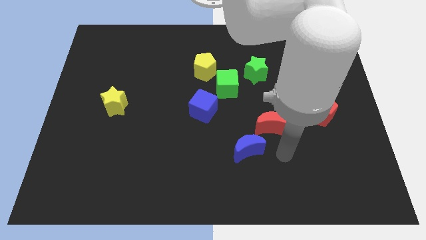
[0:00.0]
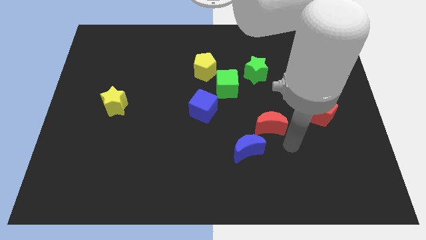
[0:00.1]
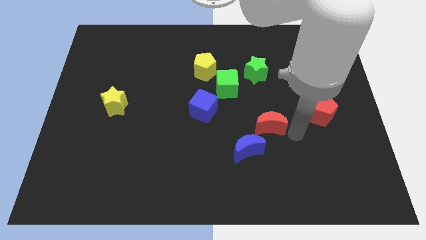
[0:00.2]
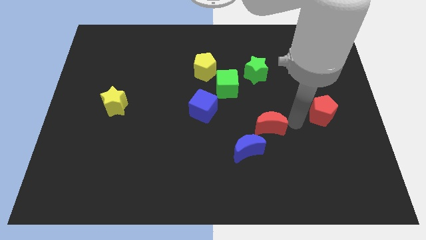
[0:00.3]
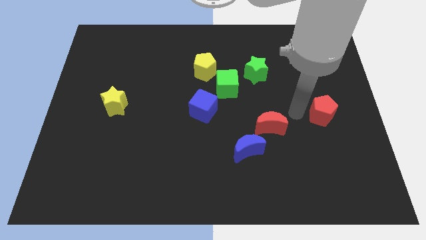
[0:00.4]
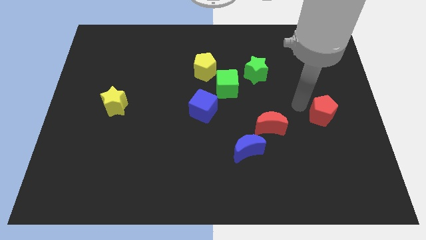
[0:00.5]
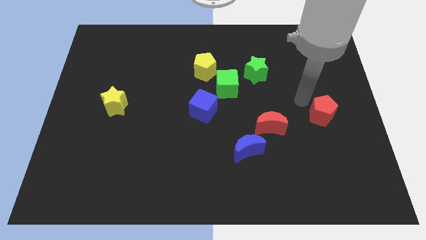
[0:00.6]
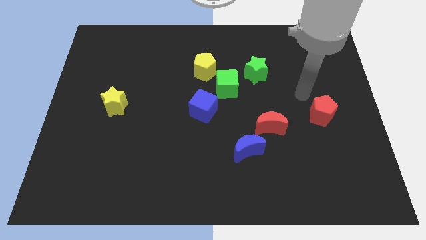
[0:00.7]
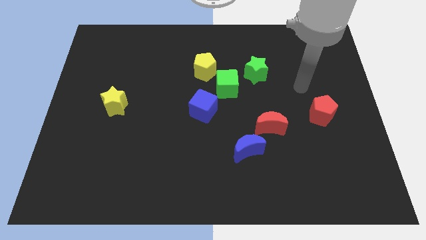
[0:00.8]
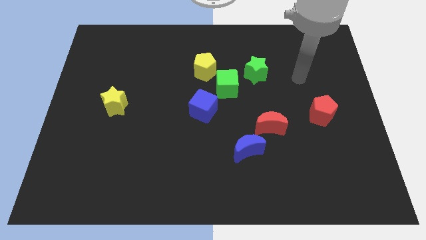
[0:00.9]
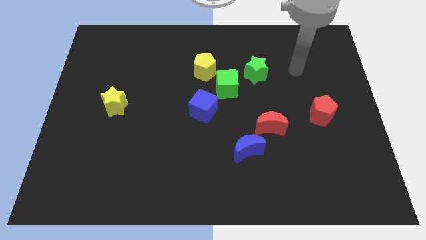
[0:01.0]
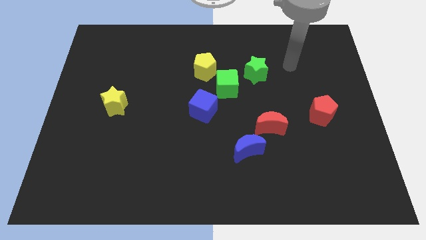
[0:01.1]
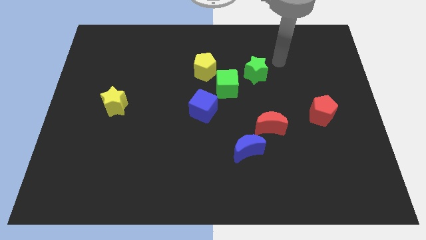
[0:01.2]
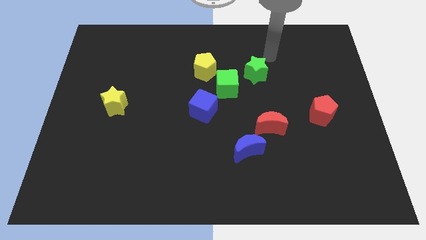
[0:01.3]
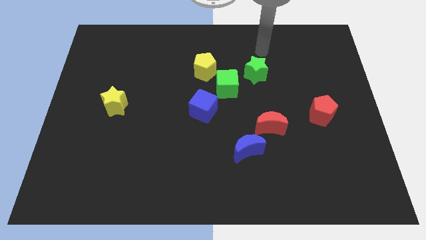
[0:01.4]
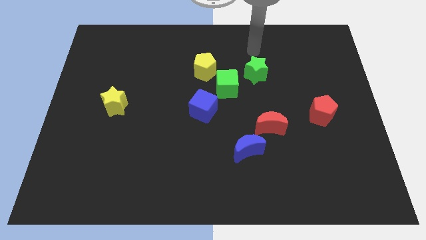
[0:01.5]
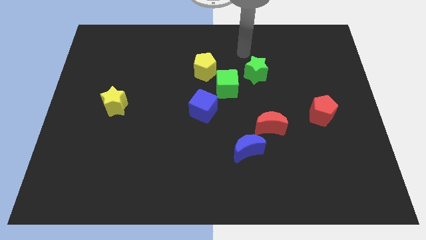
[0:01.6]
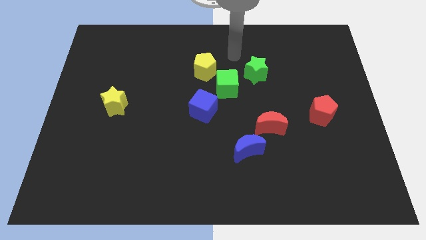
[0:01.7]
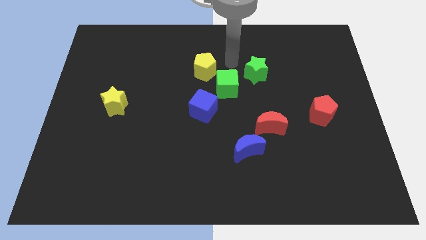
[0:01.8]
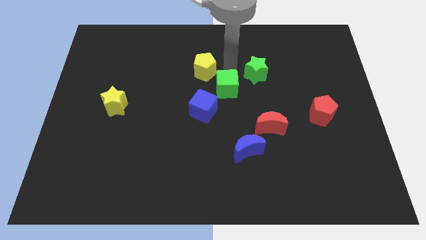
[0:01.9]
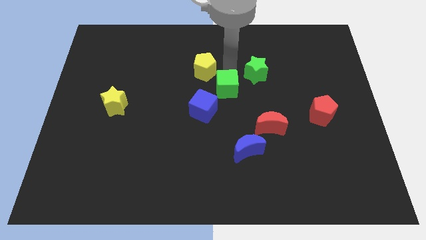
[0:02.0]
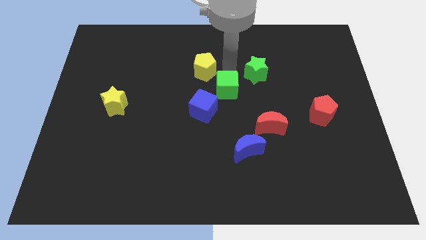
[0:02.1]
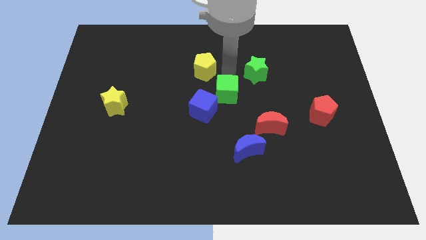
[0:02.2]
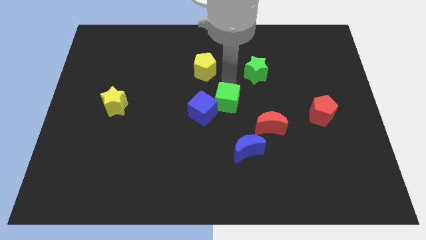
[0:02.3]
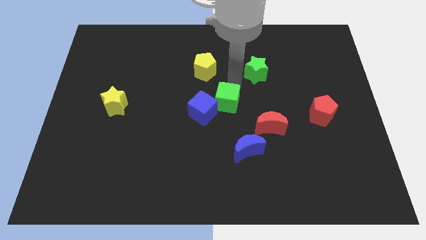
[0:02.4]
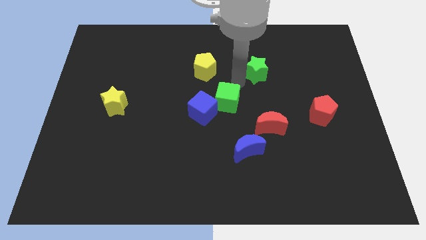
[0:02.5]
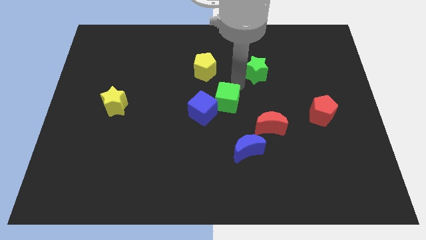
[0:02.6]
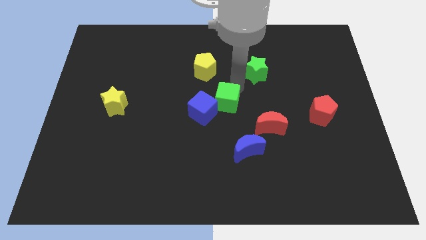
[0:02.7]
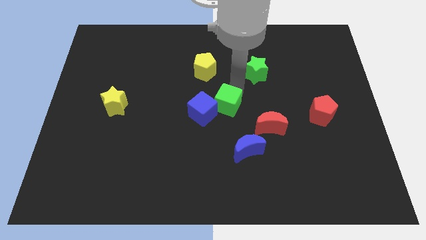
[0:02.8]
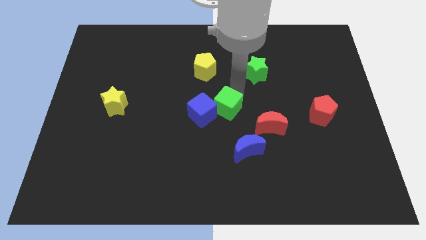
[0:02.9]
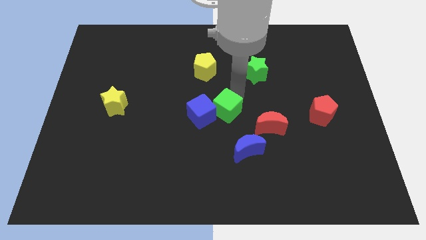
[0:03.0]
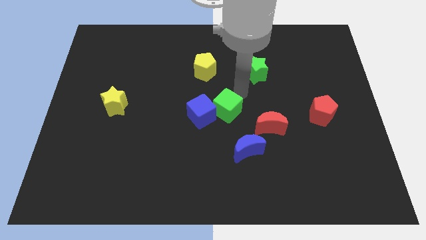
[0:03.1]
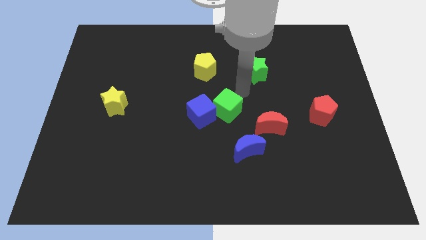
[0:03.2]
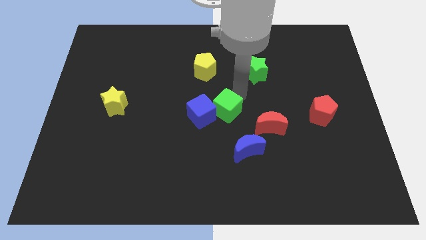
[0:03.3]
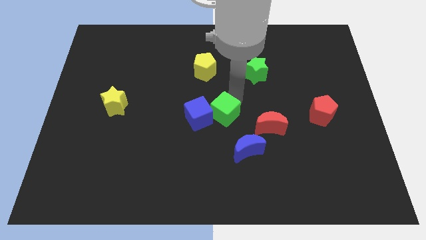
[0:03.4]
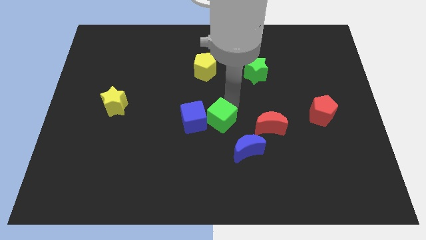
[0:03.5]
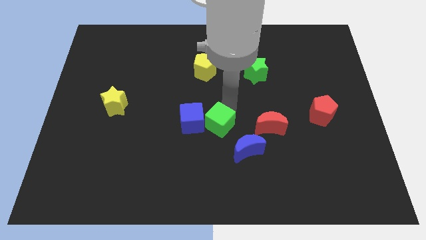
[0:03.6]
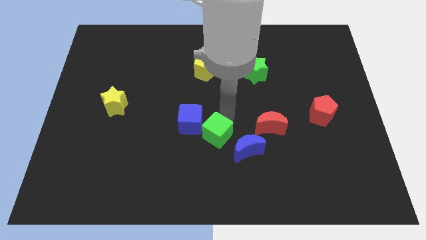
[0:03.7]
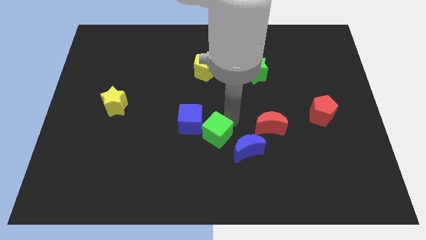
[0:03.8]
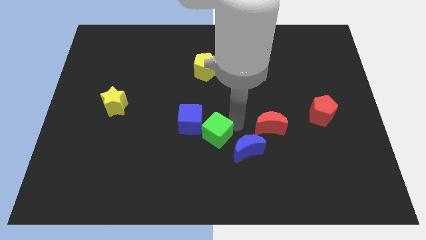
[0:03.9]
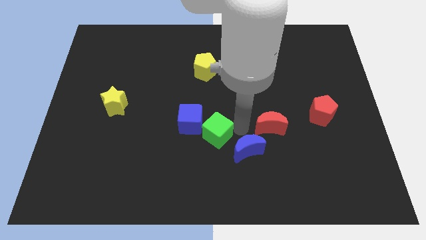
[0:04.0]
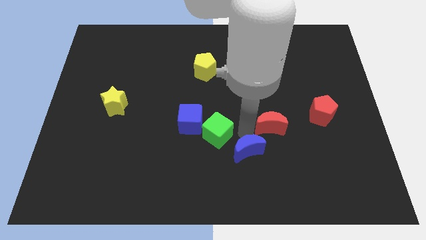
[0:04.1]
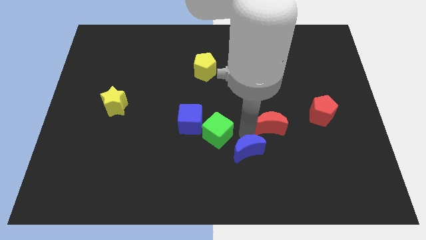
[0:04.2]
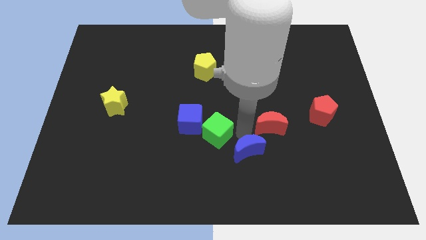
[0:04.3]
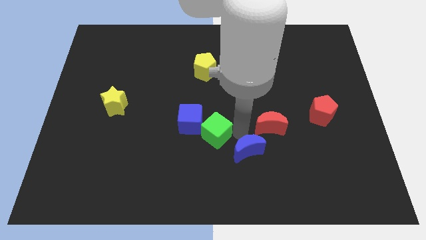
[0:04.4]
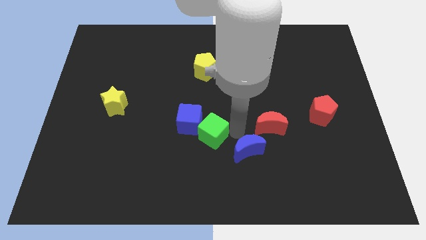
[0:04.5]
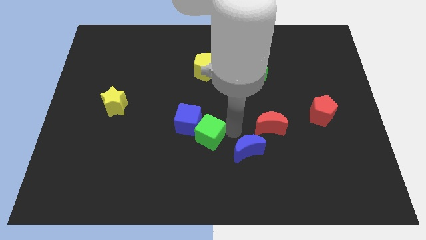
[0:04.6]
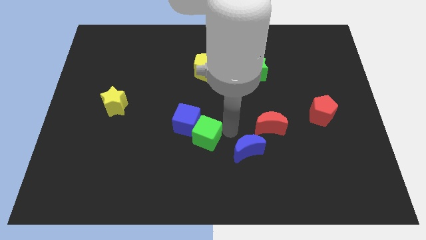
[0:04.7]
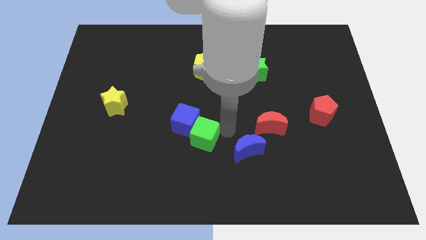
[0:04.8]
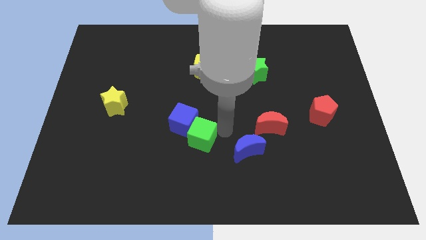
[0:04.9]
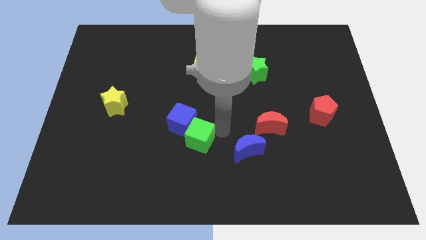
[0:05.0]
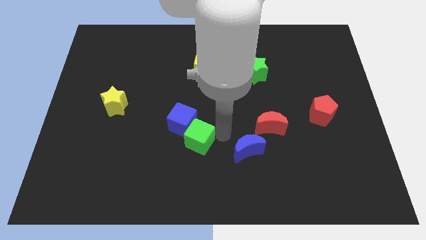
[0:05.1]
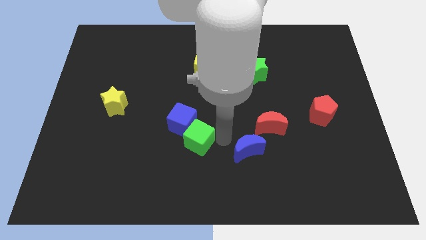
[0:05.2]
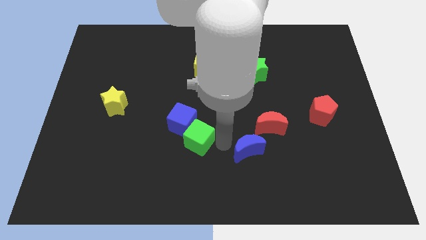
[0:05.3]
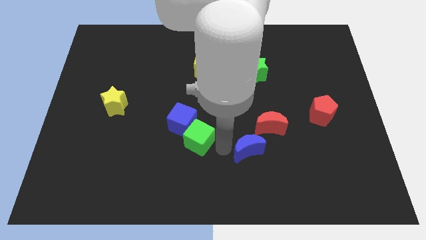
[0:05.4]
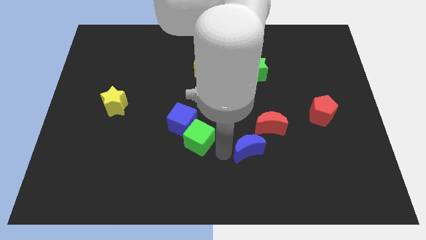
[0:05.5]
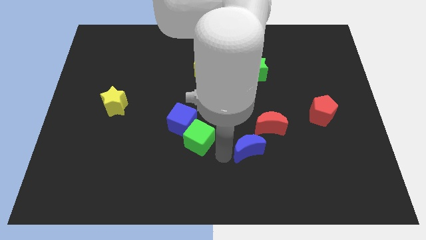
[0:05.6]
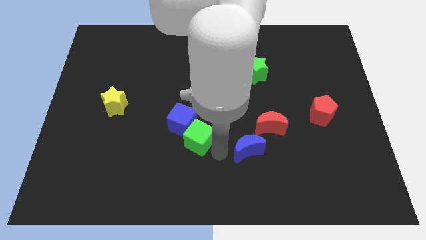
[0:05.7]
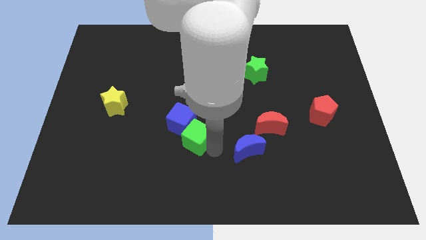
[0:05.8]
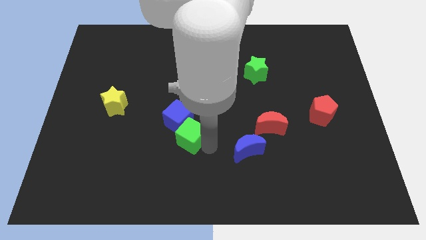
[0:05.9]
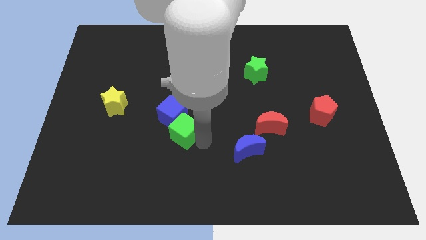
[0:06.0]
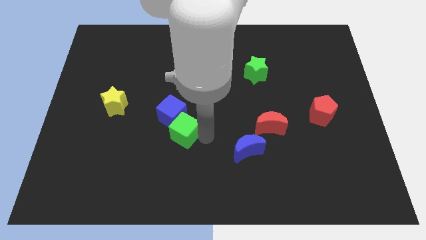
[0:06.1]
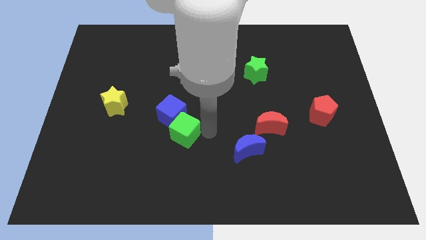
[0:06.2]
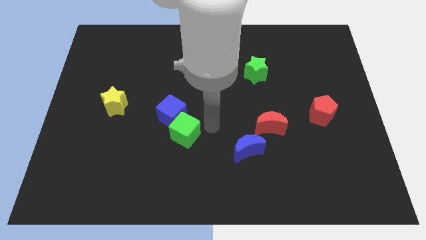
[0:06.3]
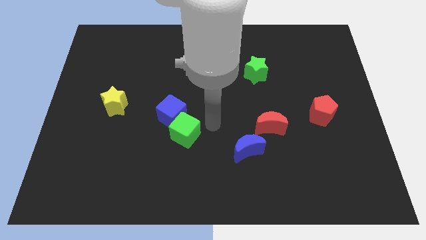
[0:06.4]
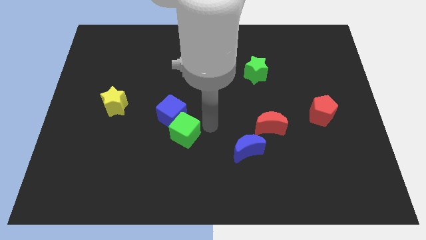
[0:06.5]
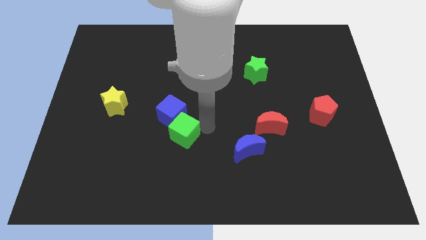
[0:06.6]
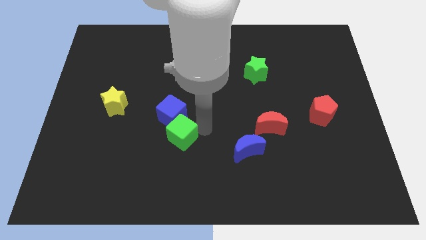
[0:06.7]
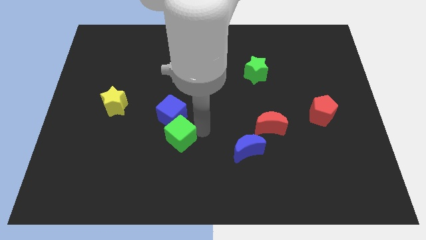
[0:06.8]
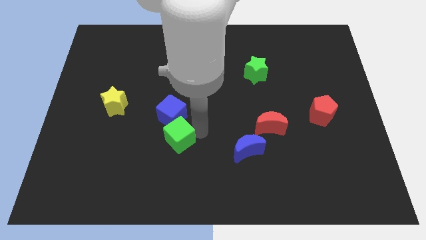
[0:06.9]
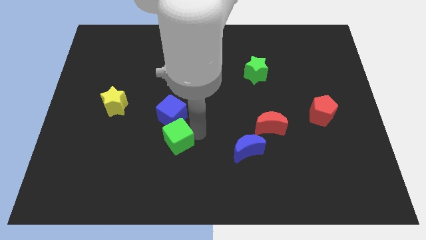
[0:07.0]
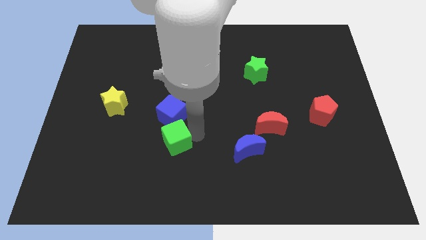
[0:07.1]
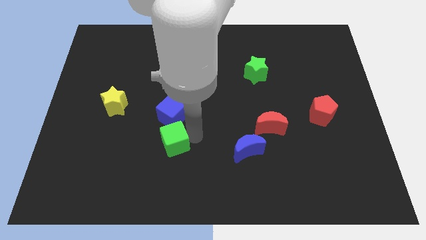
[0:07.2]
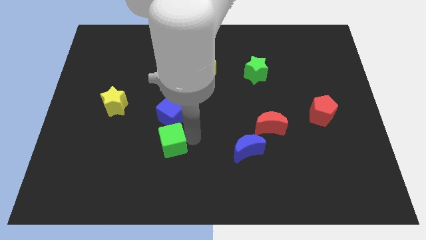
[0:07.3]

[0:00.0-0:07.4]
push the green cube down and then left

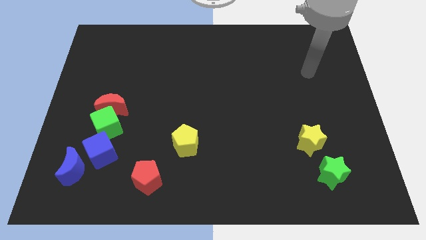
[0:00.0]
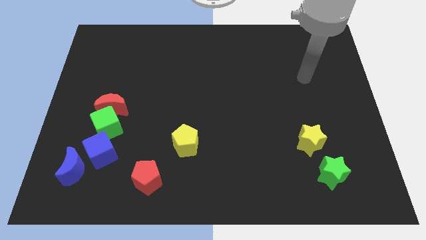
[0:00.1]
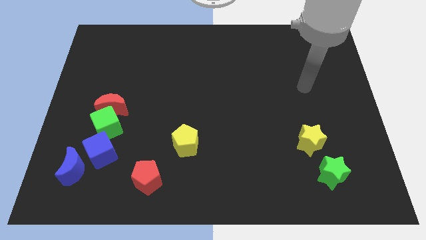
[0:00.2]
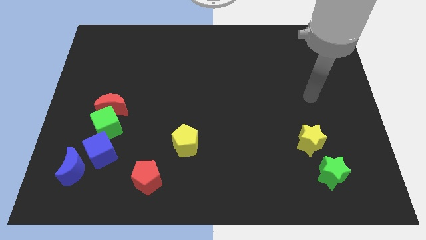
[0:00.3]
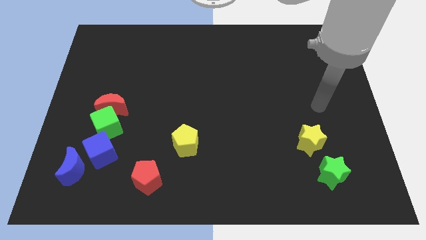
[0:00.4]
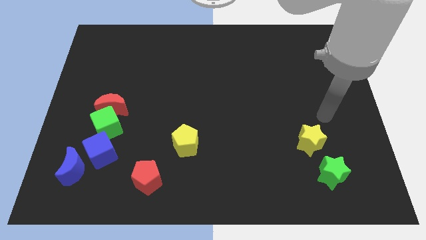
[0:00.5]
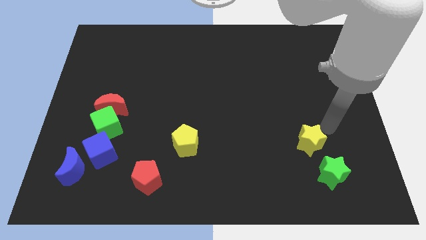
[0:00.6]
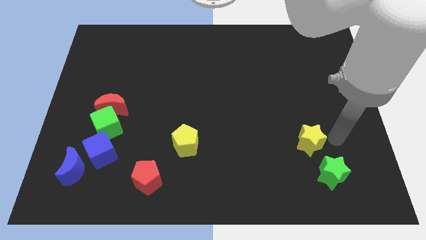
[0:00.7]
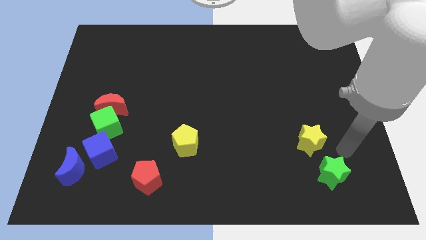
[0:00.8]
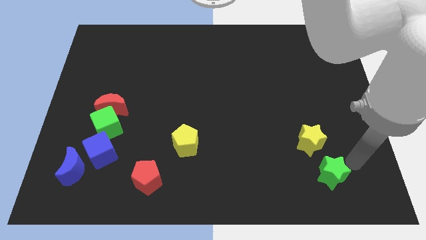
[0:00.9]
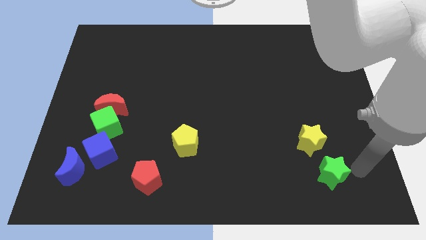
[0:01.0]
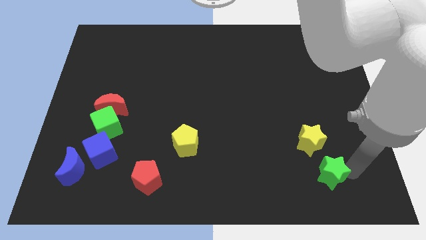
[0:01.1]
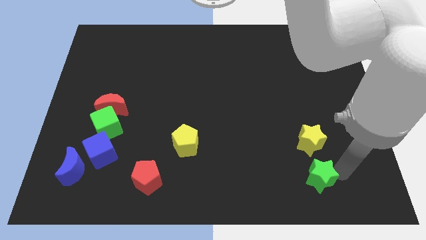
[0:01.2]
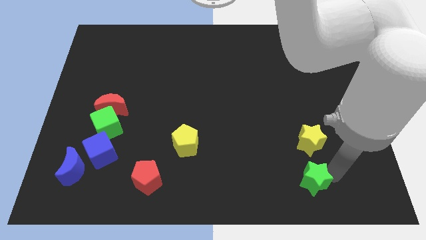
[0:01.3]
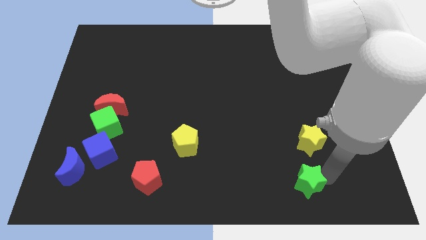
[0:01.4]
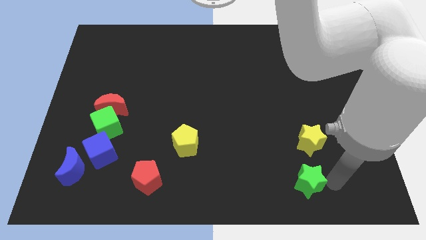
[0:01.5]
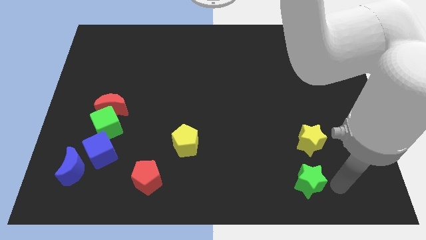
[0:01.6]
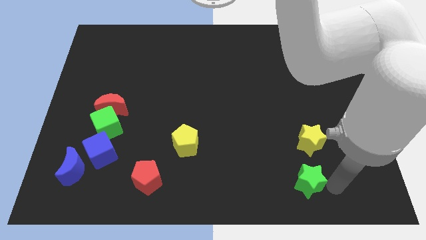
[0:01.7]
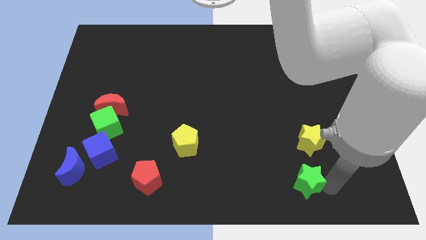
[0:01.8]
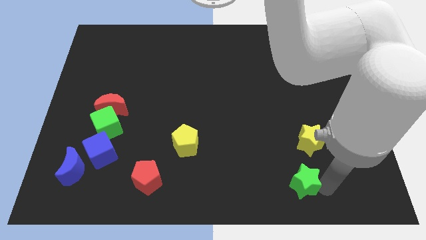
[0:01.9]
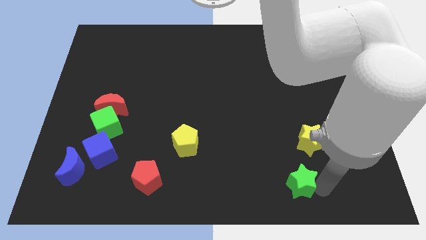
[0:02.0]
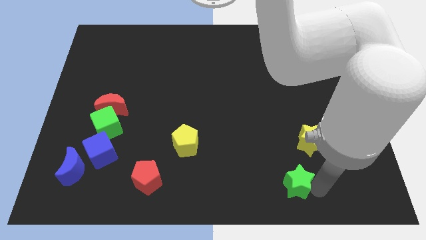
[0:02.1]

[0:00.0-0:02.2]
slightly push the green star left
